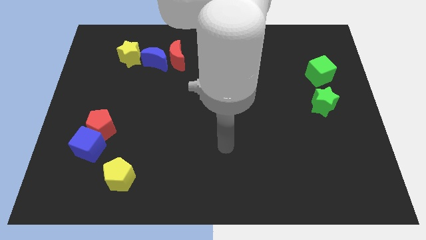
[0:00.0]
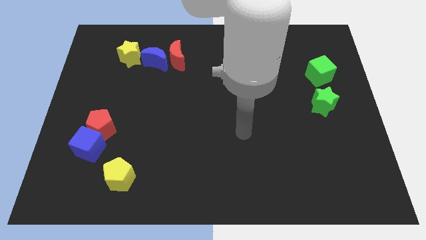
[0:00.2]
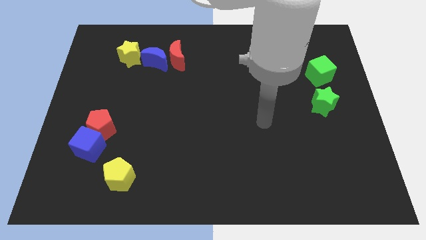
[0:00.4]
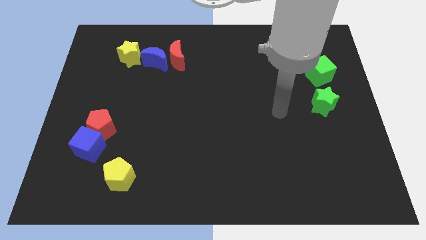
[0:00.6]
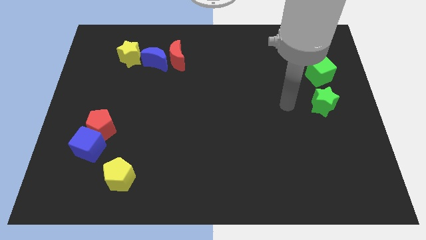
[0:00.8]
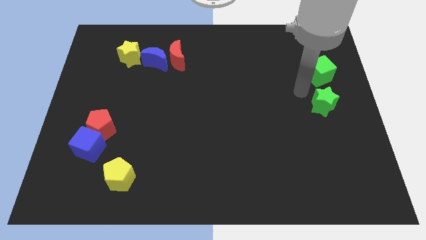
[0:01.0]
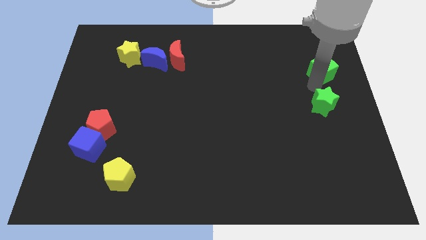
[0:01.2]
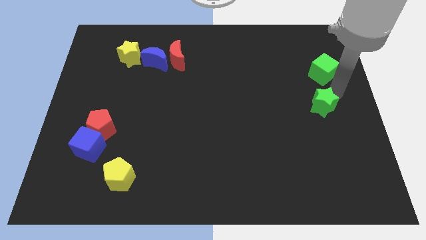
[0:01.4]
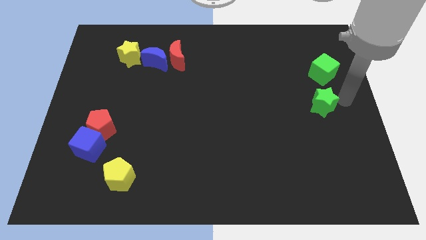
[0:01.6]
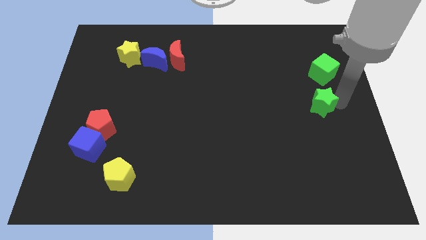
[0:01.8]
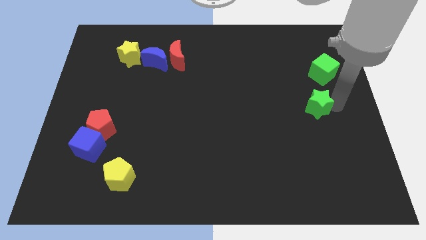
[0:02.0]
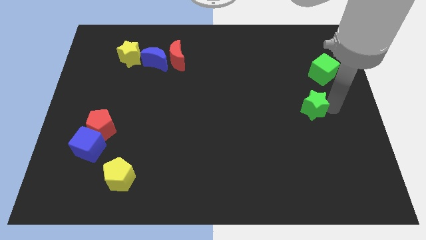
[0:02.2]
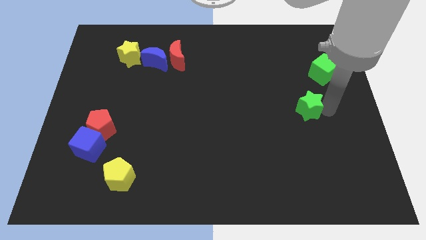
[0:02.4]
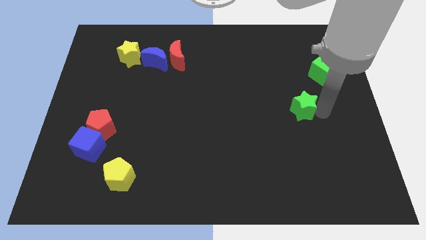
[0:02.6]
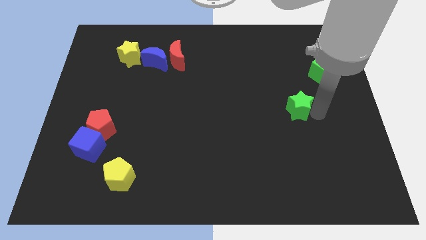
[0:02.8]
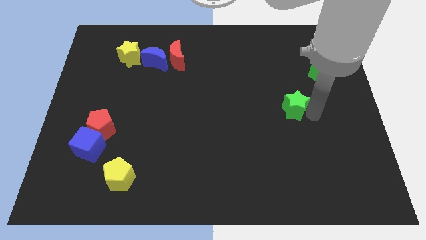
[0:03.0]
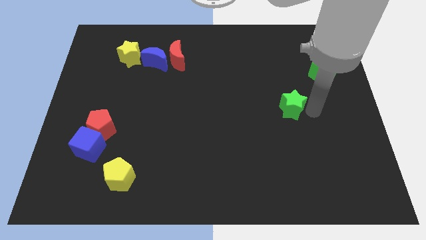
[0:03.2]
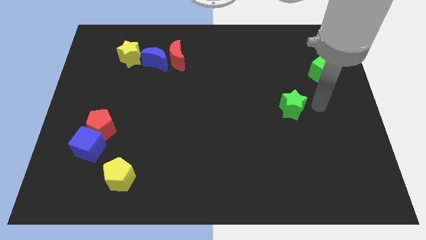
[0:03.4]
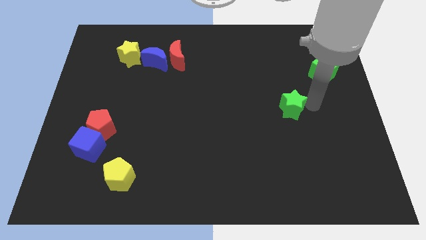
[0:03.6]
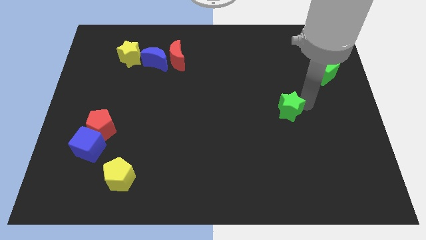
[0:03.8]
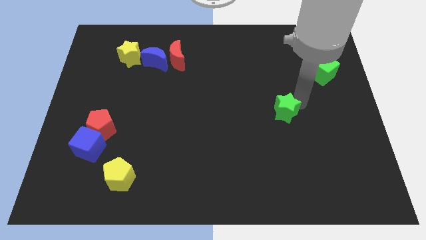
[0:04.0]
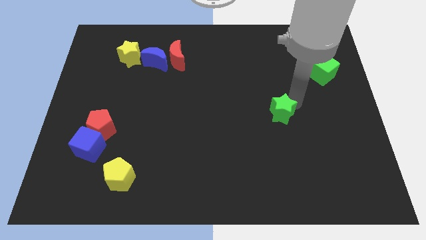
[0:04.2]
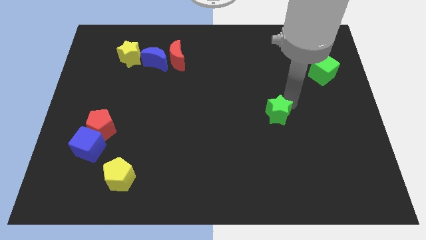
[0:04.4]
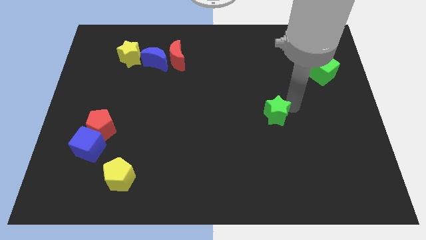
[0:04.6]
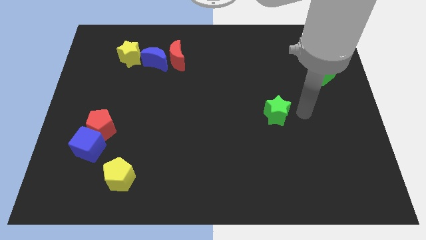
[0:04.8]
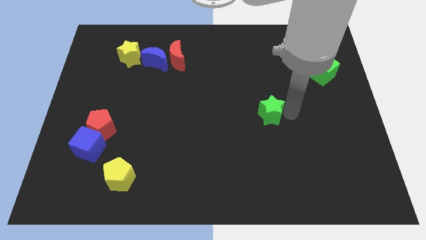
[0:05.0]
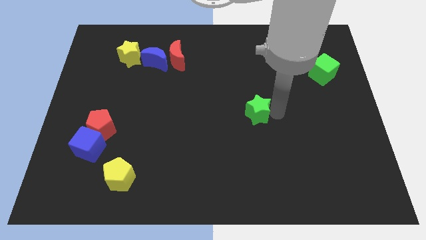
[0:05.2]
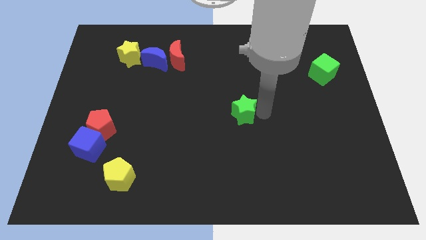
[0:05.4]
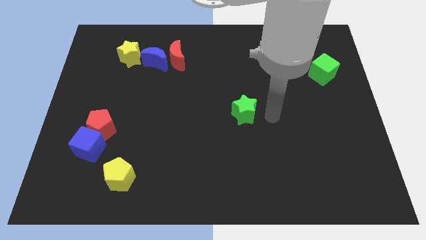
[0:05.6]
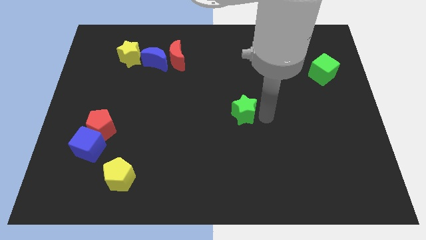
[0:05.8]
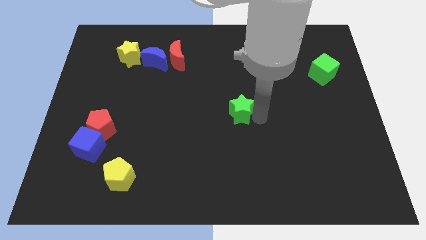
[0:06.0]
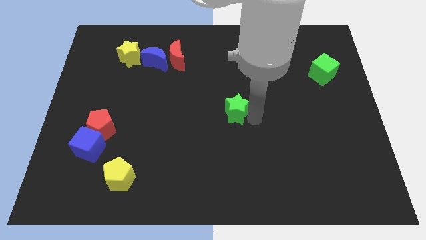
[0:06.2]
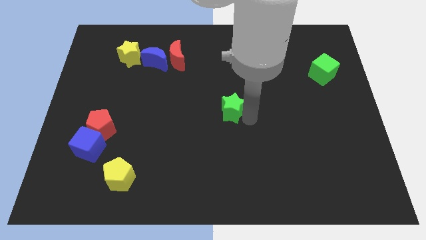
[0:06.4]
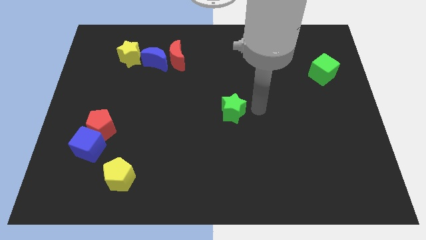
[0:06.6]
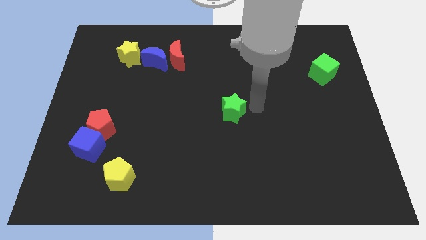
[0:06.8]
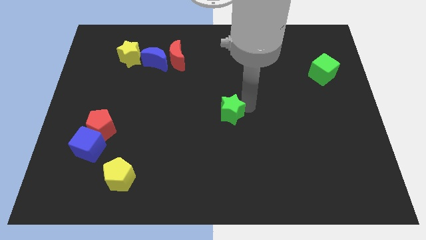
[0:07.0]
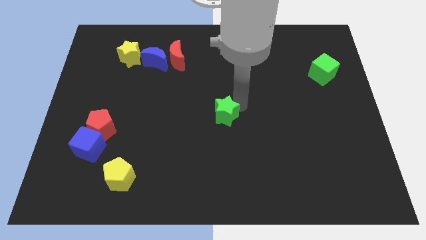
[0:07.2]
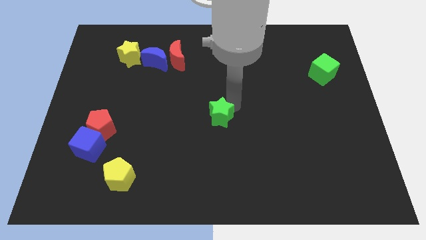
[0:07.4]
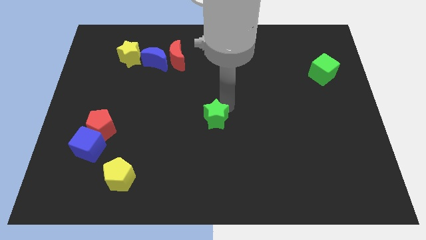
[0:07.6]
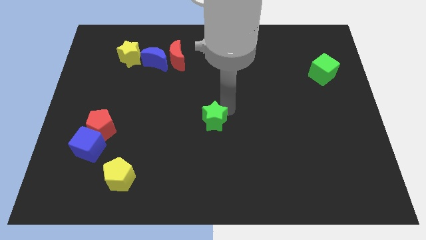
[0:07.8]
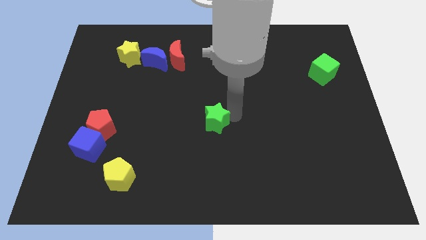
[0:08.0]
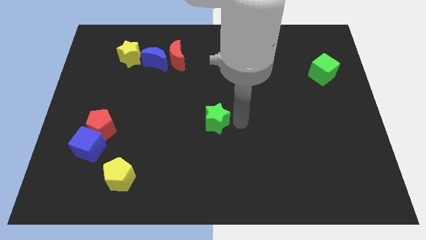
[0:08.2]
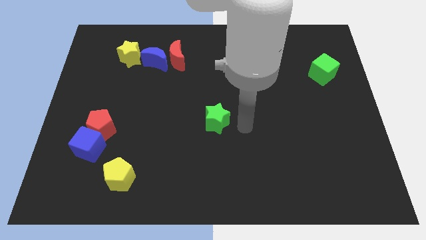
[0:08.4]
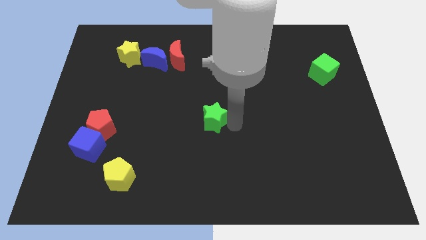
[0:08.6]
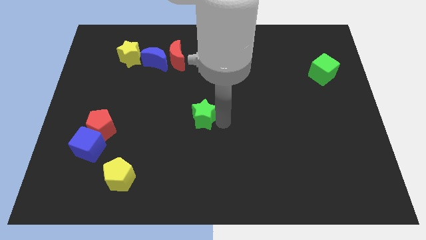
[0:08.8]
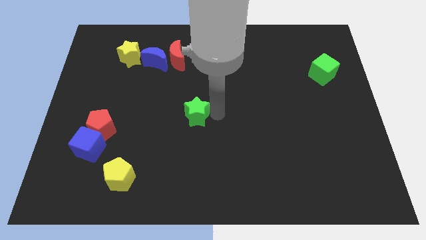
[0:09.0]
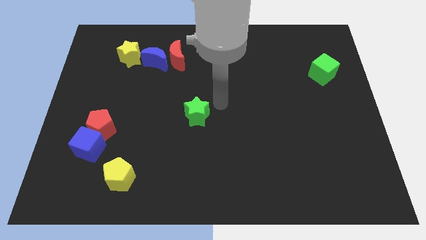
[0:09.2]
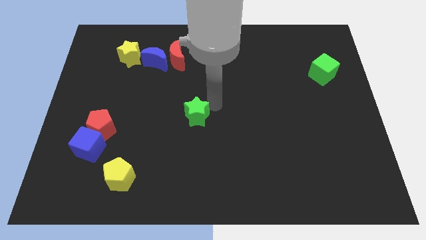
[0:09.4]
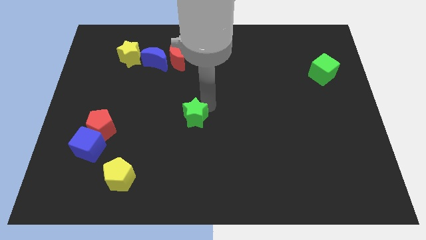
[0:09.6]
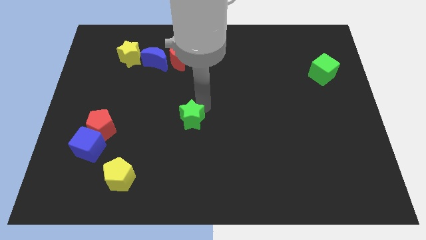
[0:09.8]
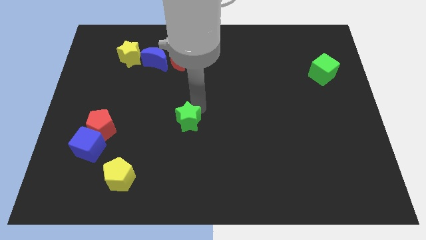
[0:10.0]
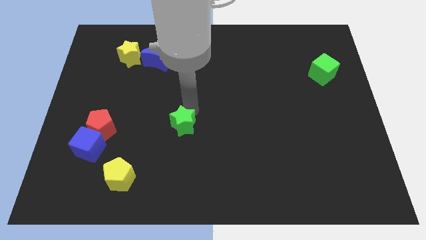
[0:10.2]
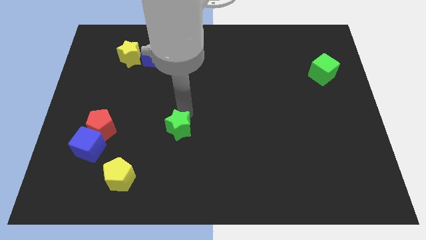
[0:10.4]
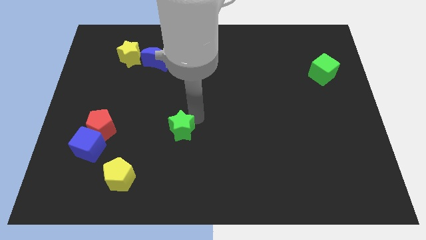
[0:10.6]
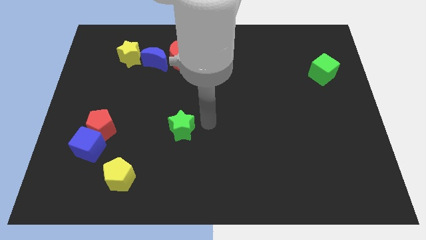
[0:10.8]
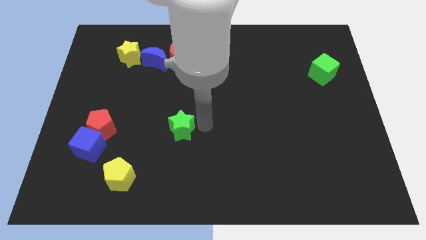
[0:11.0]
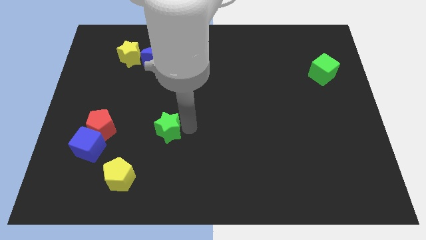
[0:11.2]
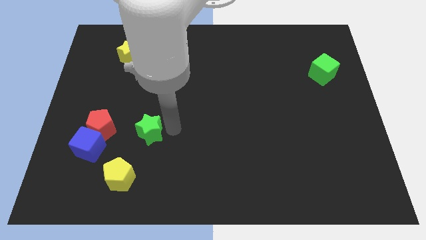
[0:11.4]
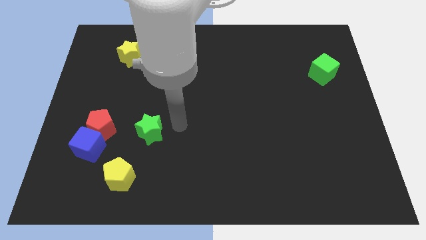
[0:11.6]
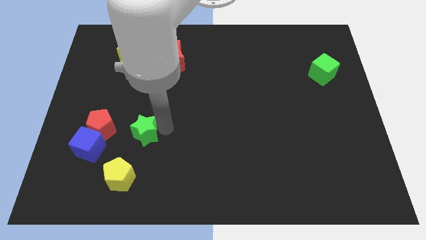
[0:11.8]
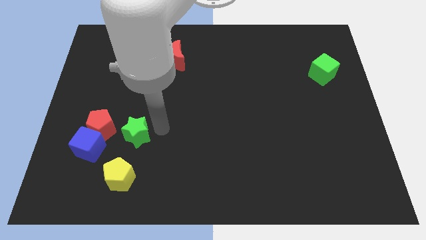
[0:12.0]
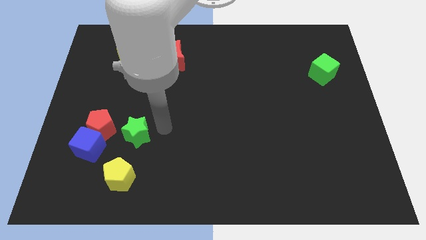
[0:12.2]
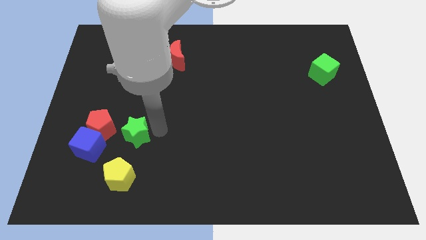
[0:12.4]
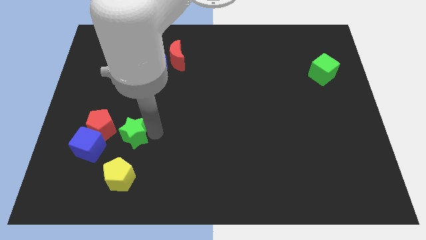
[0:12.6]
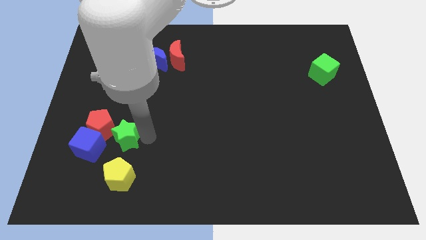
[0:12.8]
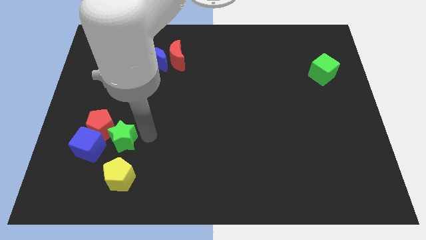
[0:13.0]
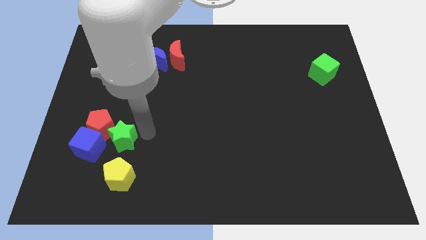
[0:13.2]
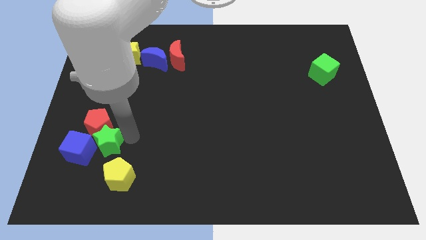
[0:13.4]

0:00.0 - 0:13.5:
put the green star next to the blue cube
